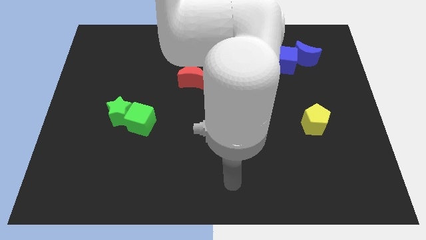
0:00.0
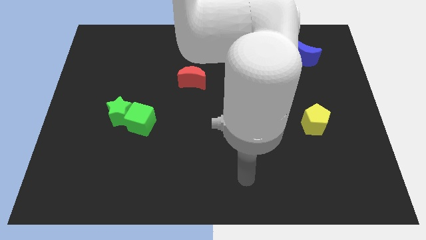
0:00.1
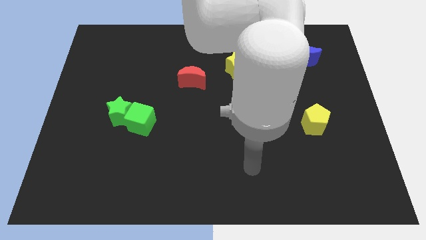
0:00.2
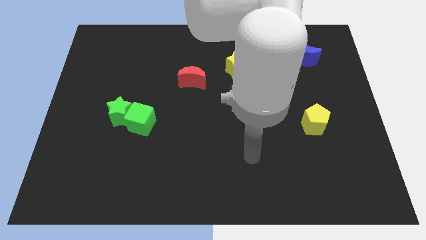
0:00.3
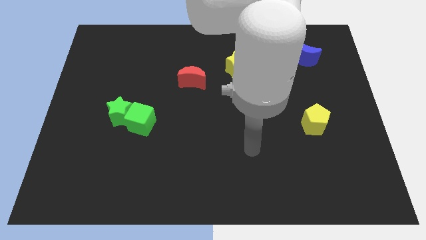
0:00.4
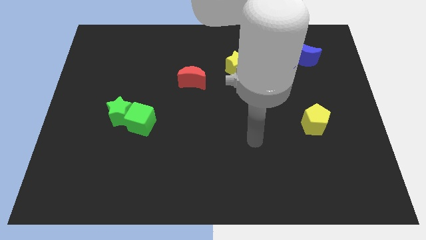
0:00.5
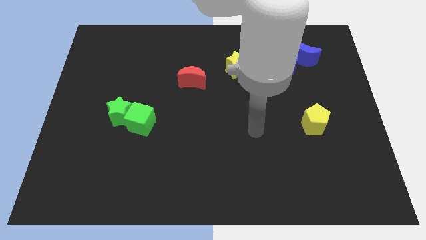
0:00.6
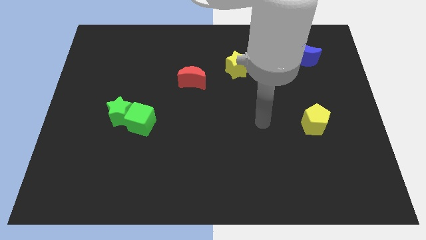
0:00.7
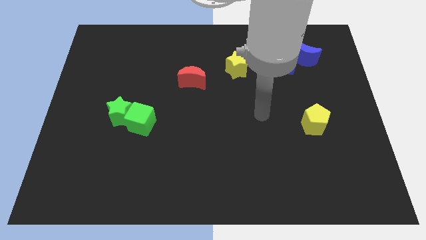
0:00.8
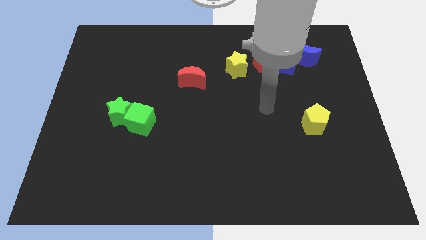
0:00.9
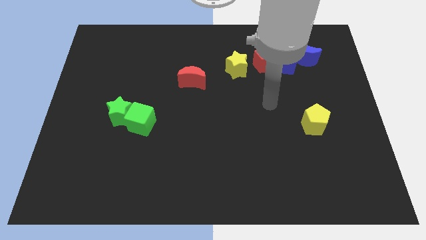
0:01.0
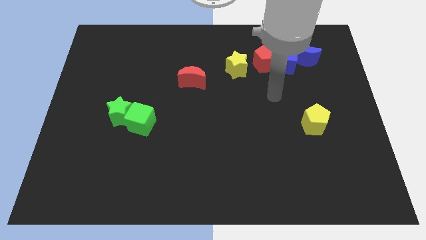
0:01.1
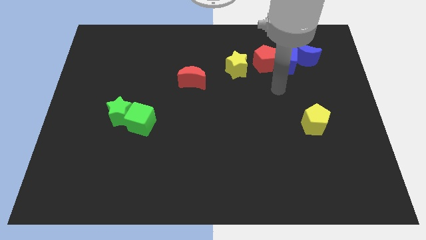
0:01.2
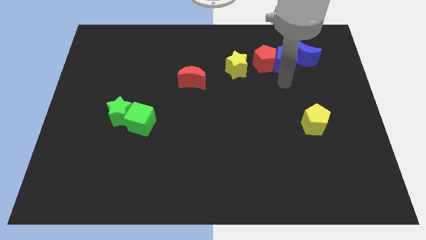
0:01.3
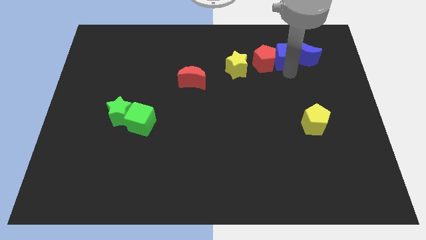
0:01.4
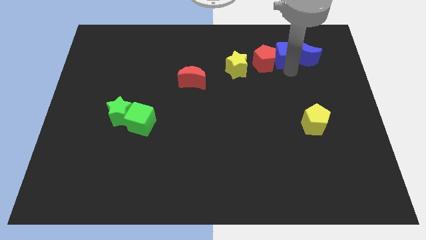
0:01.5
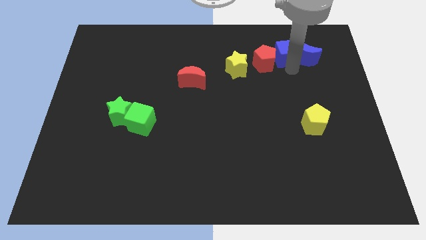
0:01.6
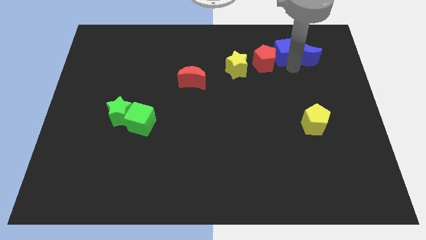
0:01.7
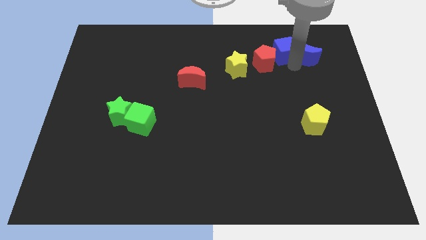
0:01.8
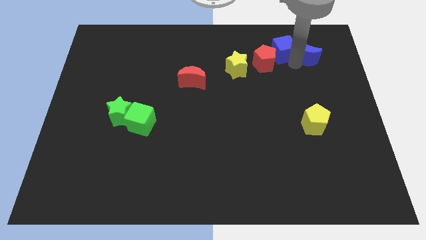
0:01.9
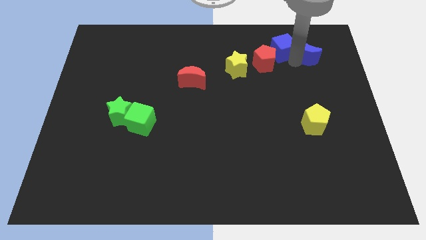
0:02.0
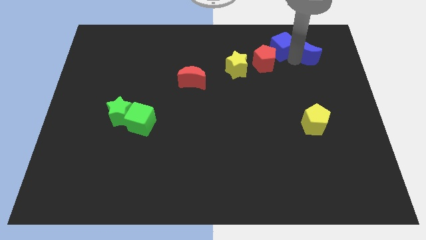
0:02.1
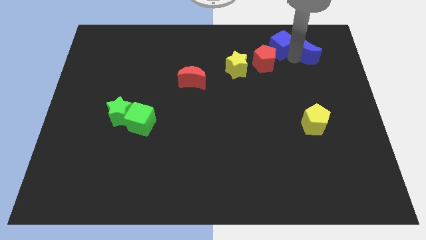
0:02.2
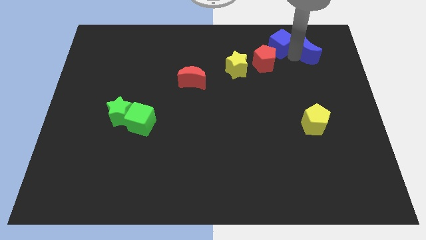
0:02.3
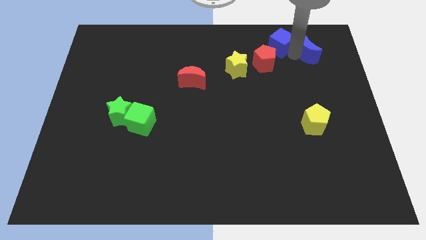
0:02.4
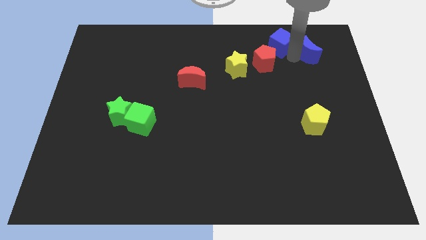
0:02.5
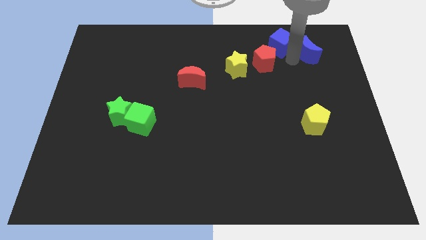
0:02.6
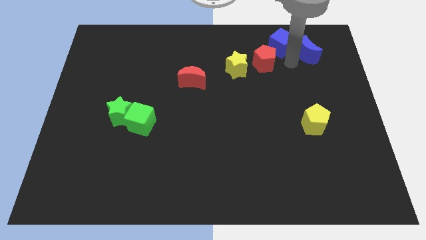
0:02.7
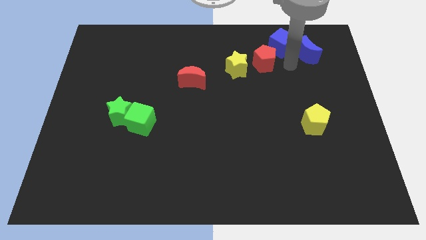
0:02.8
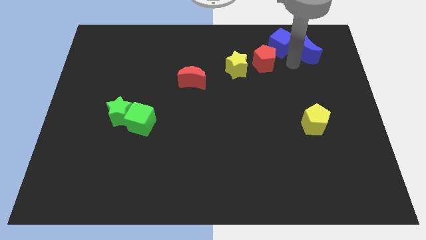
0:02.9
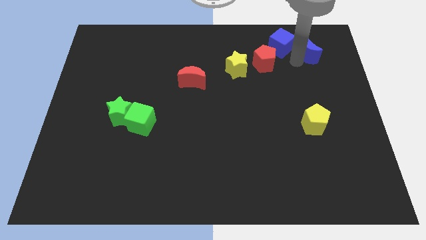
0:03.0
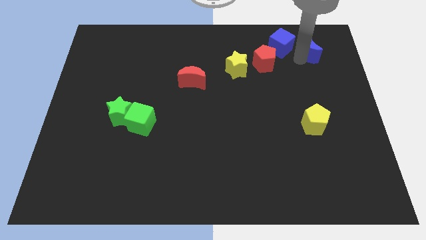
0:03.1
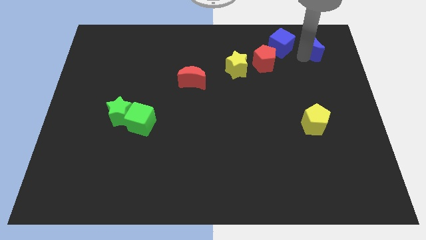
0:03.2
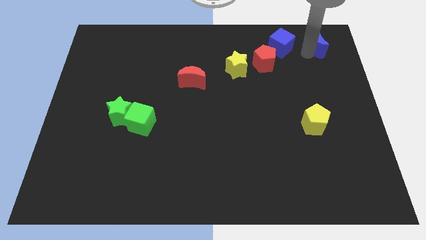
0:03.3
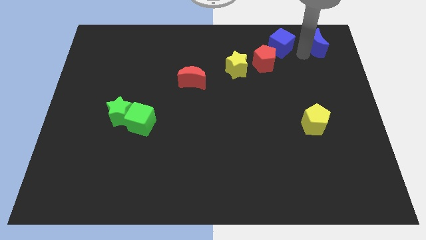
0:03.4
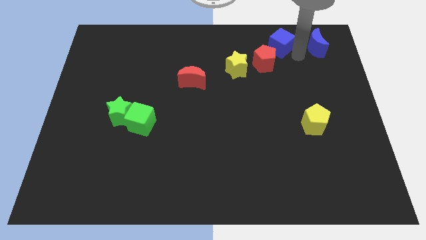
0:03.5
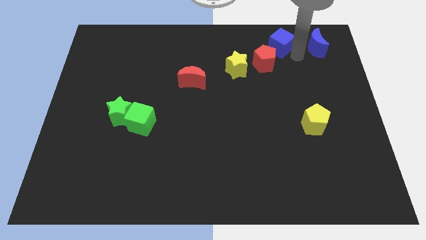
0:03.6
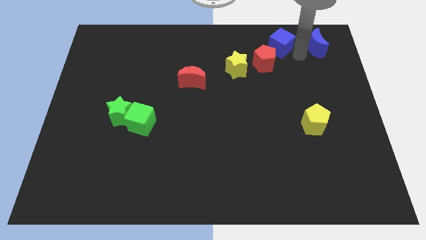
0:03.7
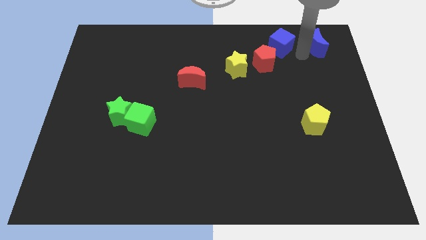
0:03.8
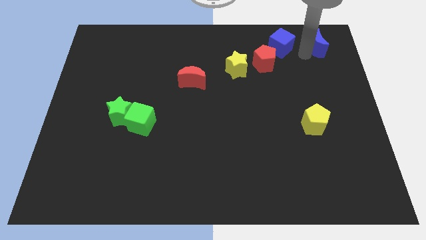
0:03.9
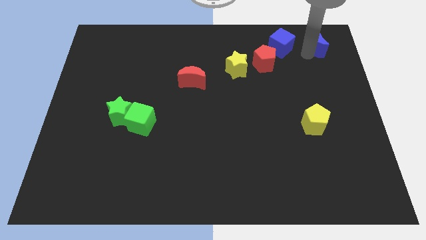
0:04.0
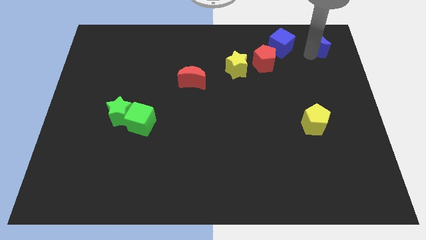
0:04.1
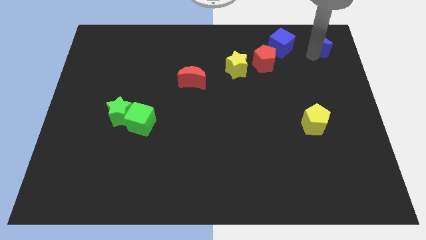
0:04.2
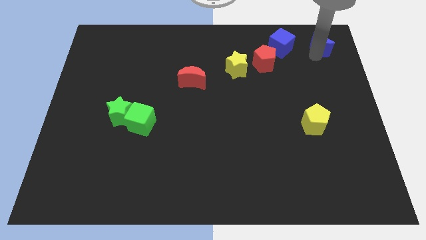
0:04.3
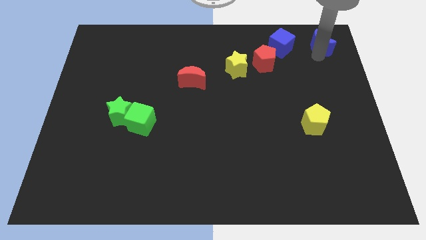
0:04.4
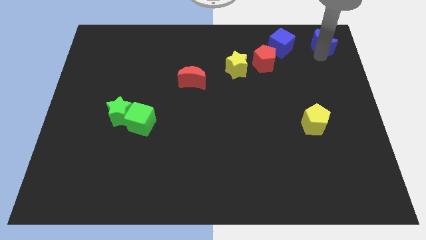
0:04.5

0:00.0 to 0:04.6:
push the blue moon to the top right of the board

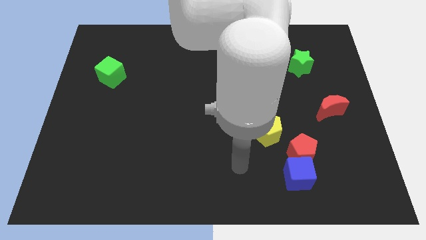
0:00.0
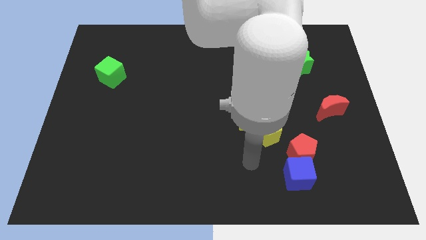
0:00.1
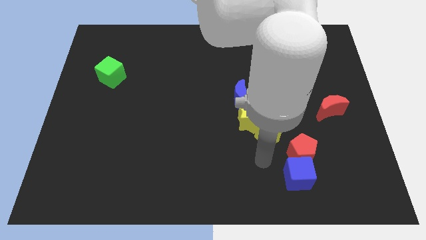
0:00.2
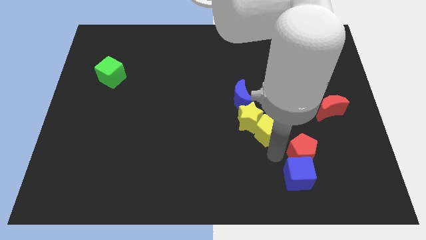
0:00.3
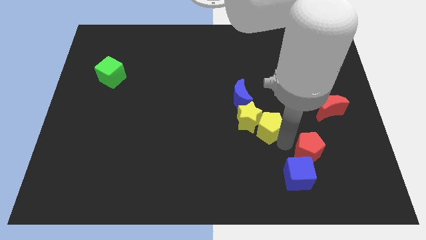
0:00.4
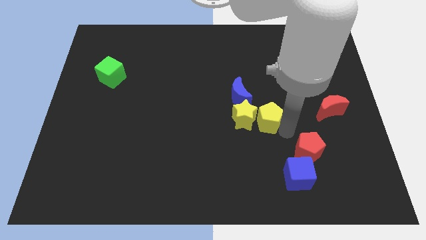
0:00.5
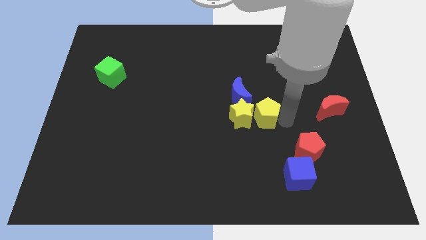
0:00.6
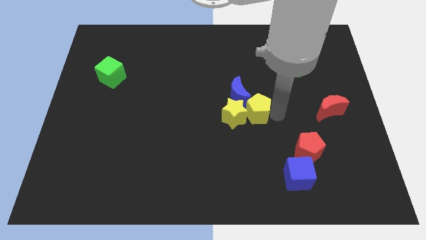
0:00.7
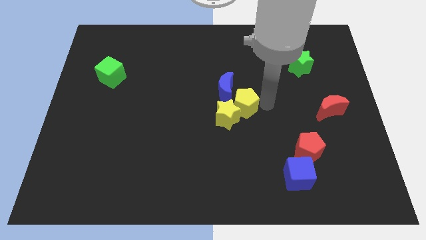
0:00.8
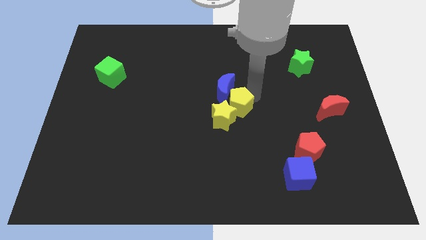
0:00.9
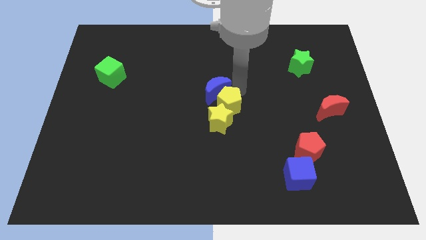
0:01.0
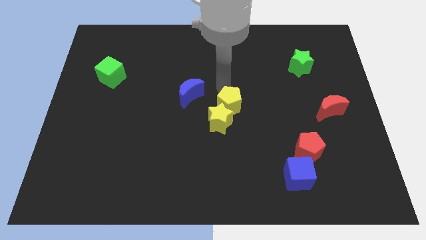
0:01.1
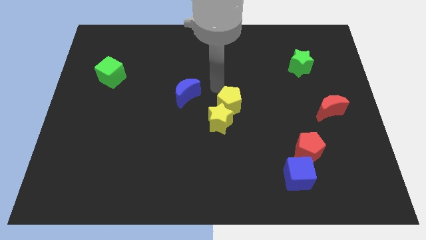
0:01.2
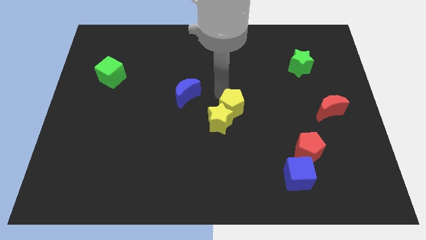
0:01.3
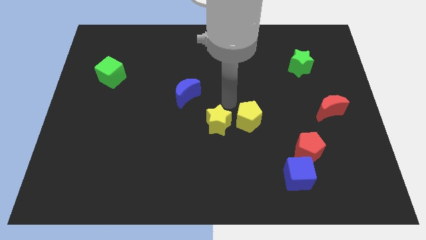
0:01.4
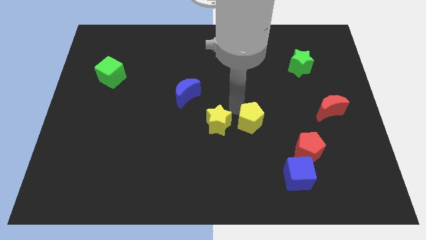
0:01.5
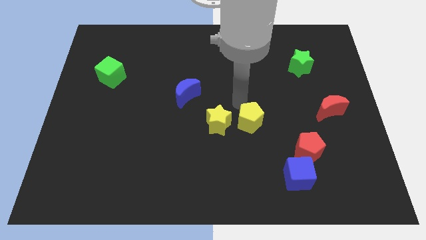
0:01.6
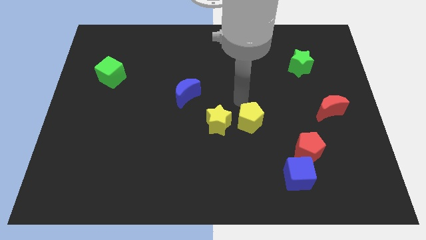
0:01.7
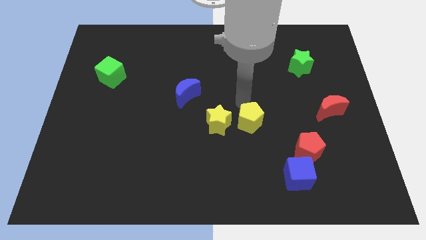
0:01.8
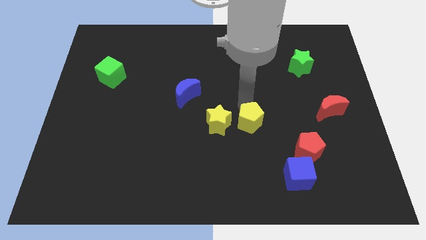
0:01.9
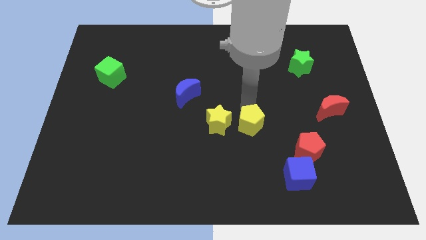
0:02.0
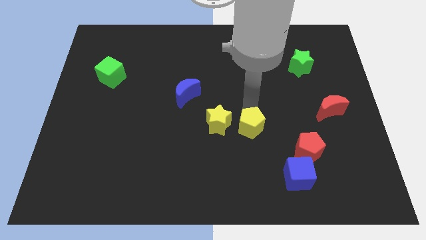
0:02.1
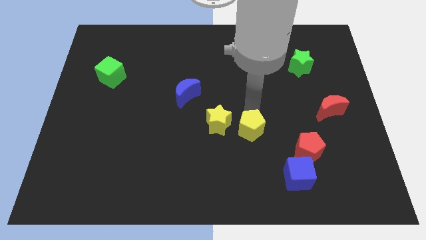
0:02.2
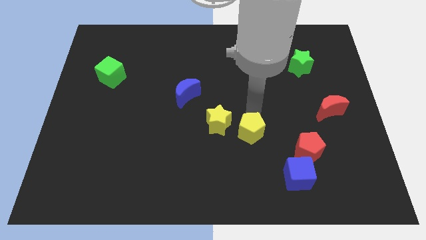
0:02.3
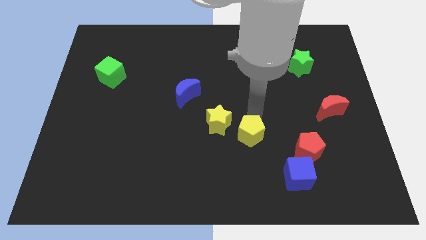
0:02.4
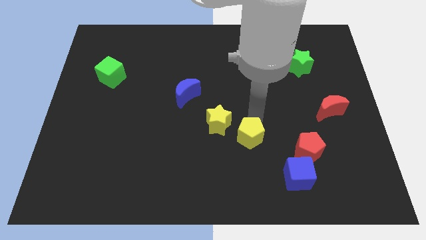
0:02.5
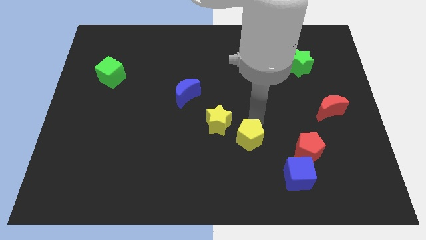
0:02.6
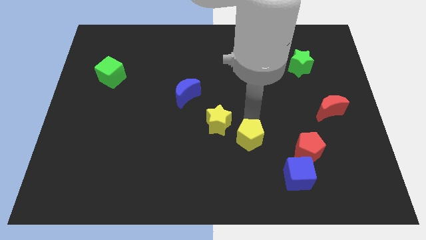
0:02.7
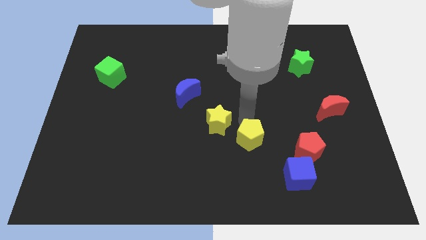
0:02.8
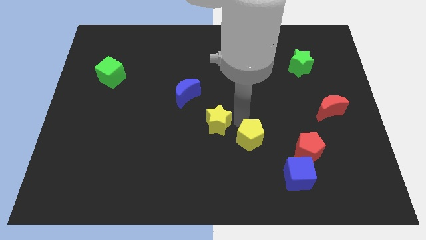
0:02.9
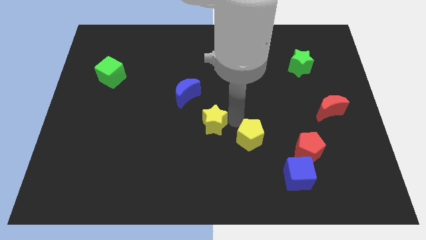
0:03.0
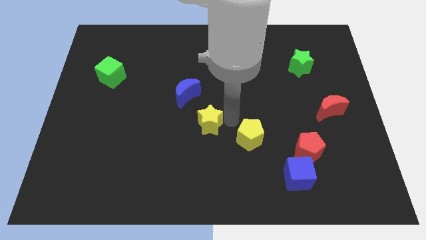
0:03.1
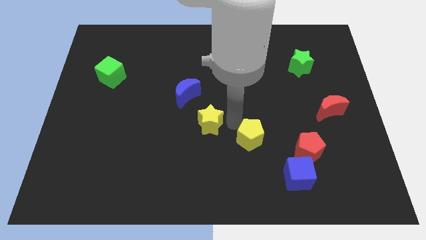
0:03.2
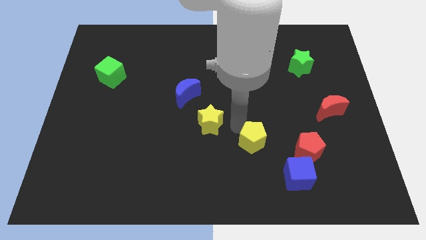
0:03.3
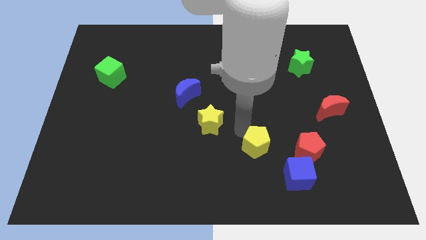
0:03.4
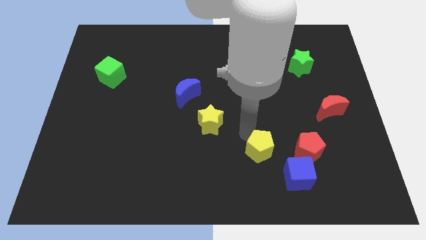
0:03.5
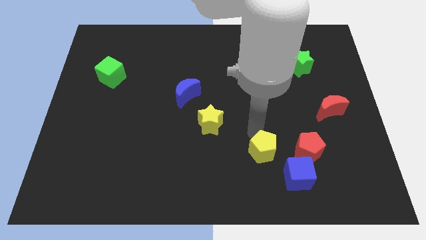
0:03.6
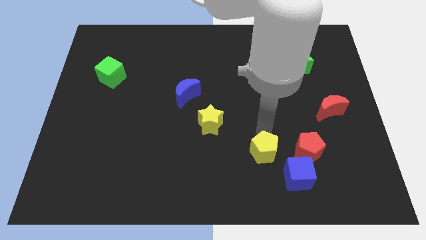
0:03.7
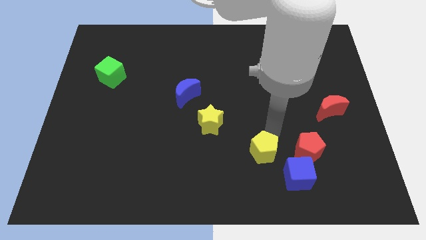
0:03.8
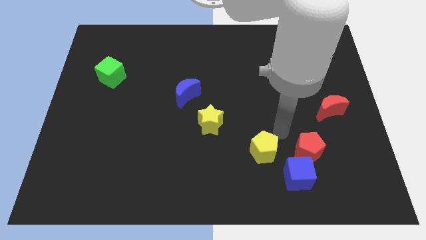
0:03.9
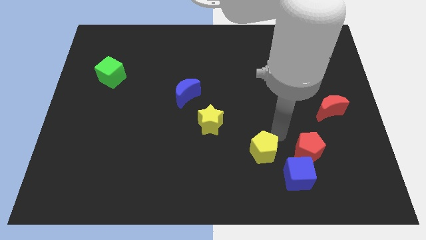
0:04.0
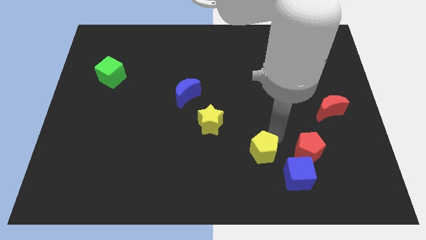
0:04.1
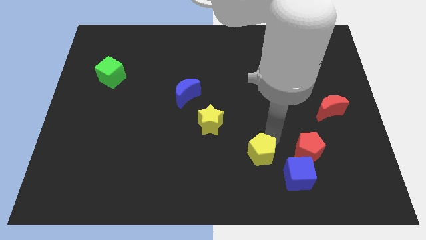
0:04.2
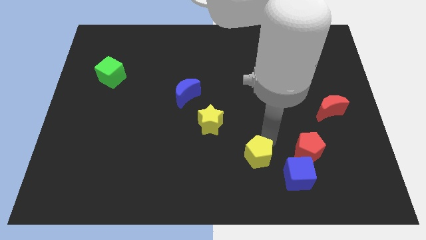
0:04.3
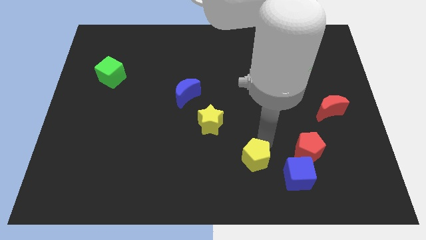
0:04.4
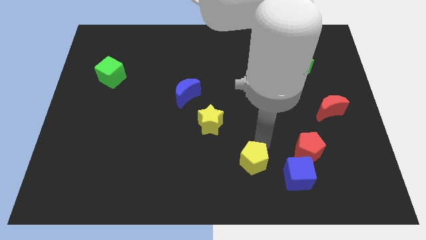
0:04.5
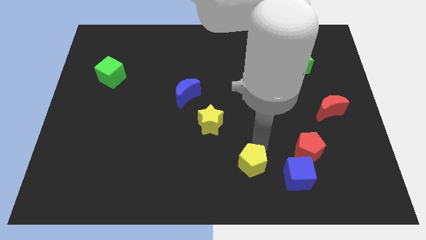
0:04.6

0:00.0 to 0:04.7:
push the yellow pentagon to the bottom side
